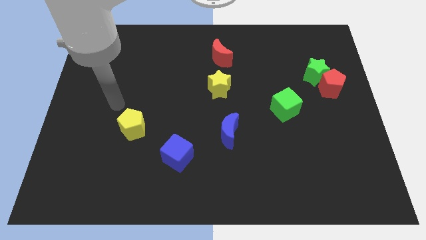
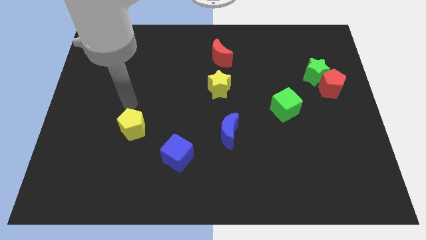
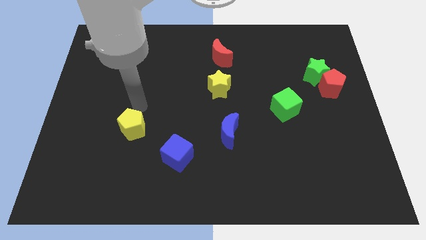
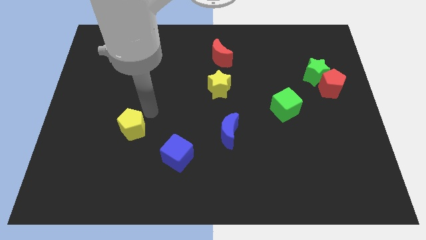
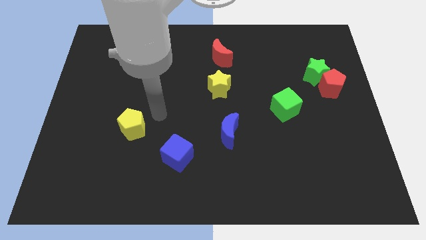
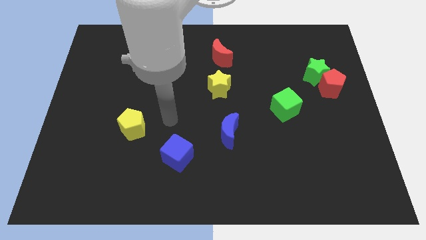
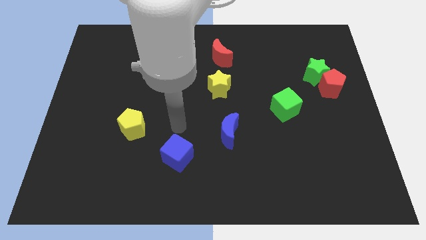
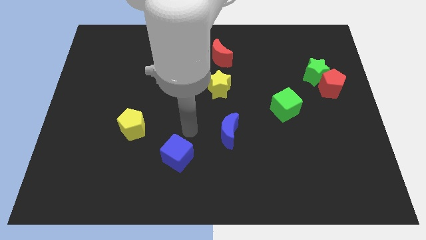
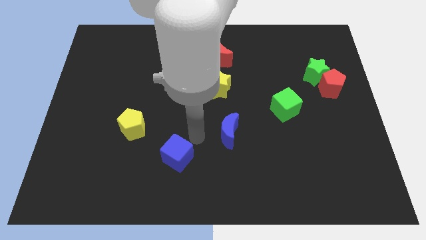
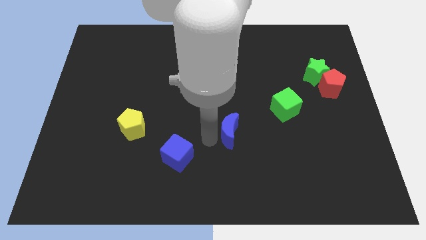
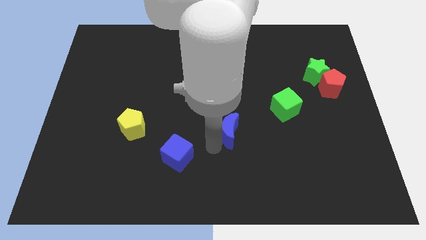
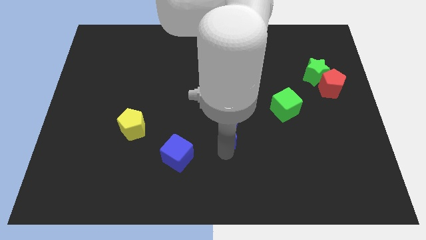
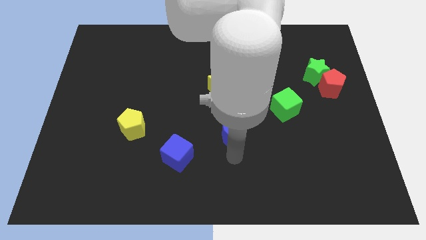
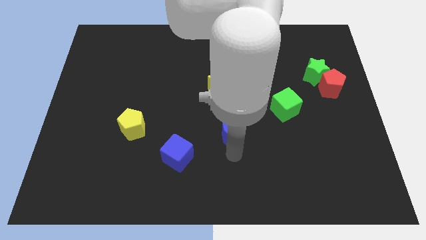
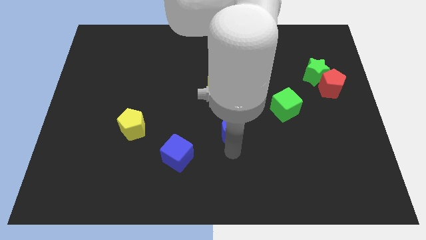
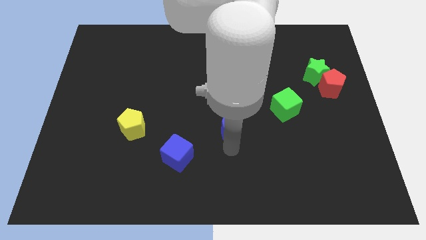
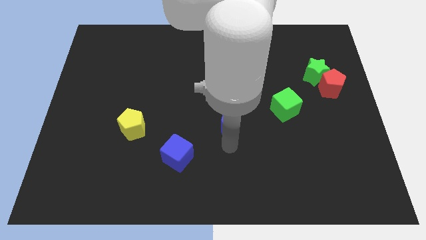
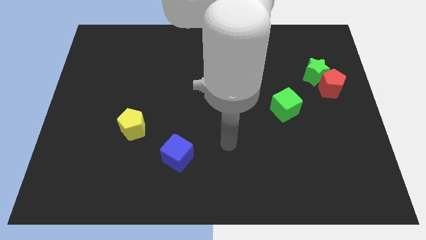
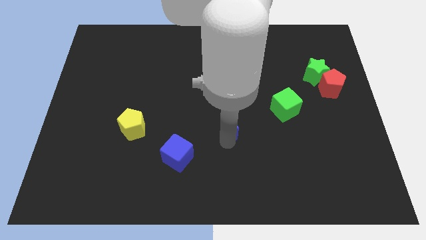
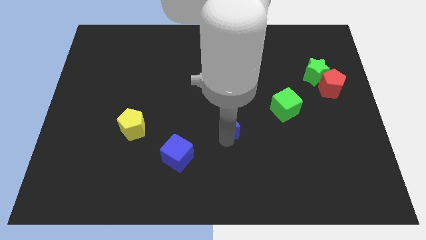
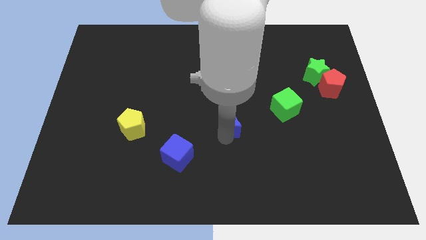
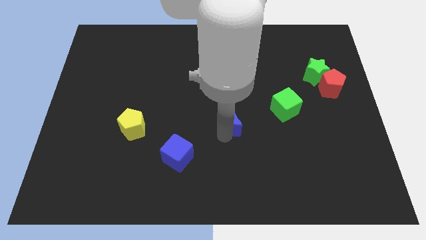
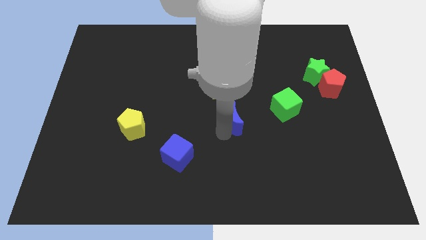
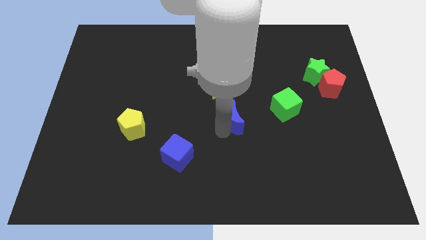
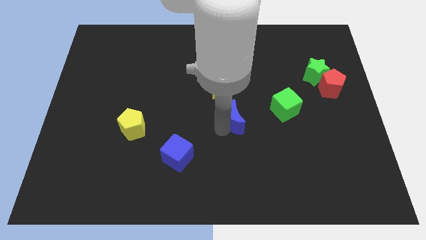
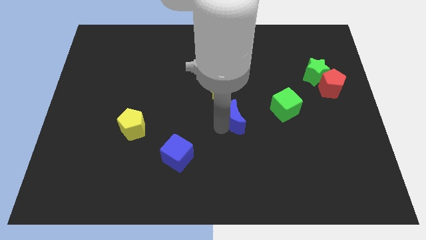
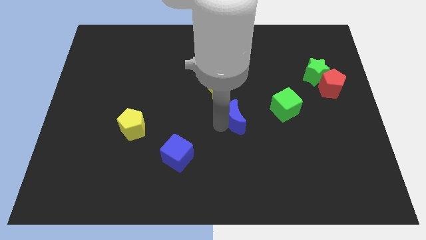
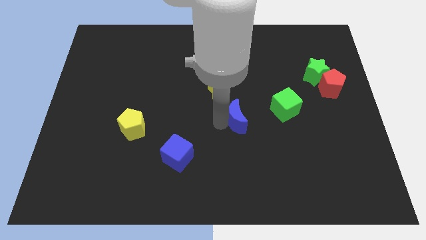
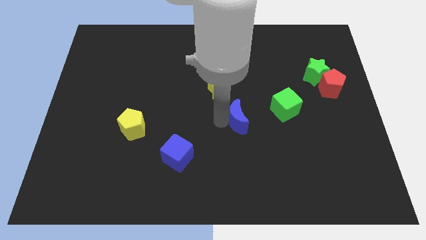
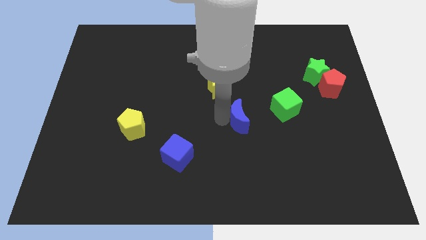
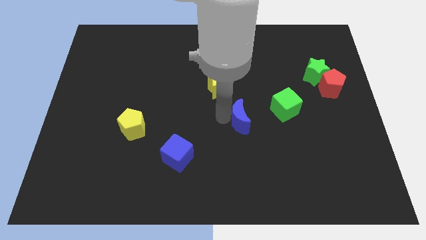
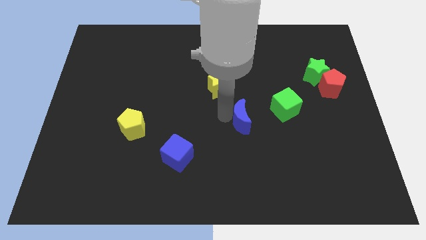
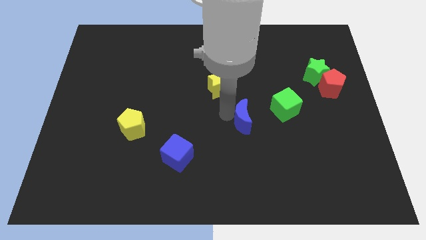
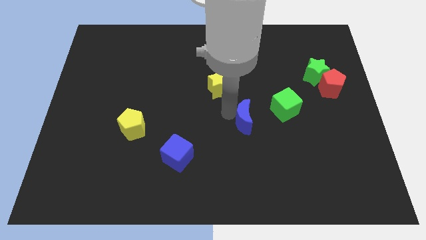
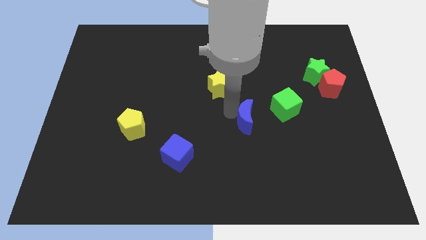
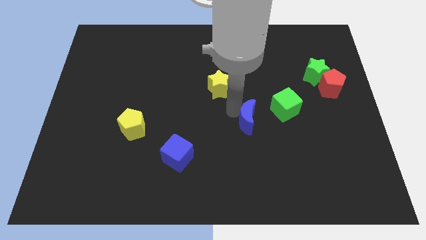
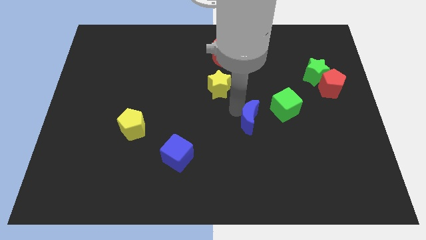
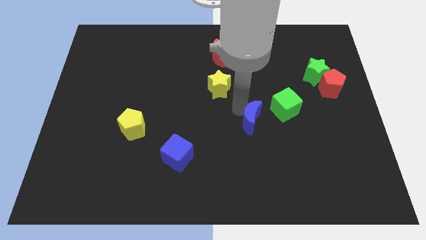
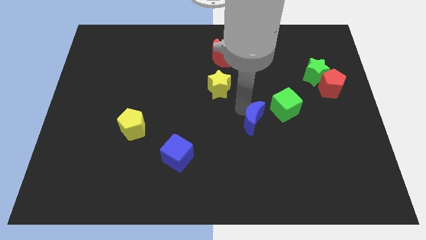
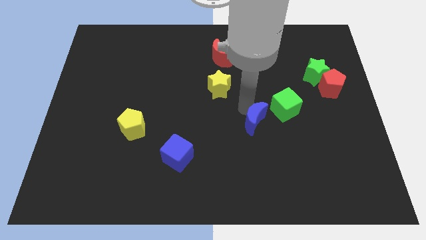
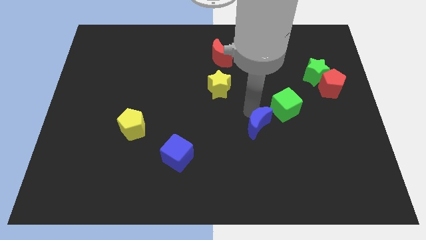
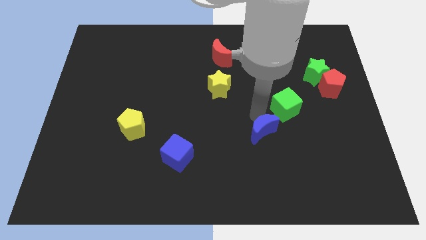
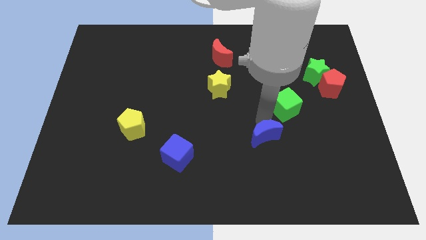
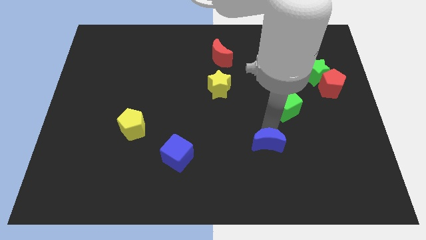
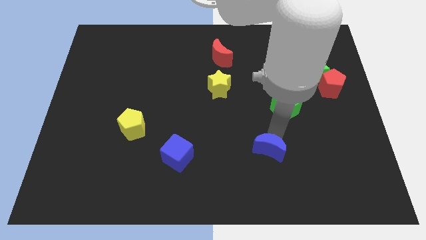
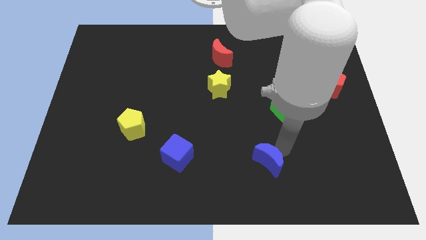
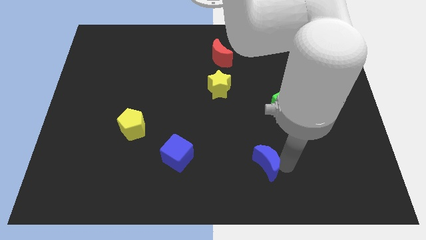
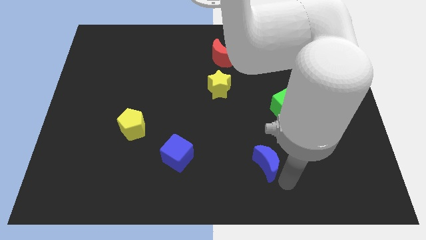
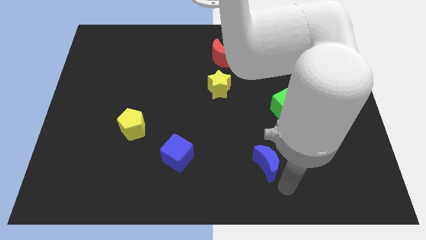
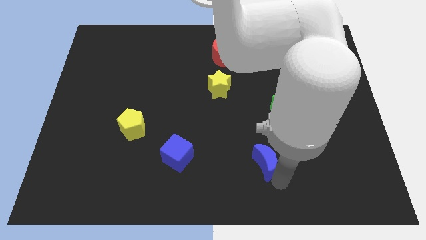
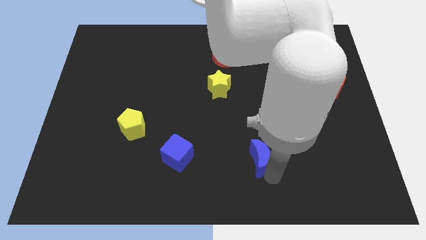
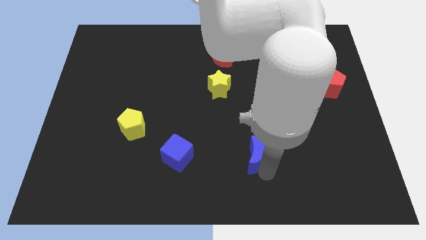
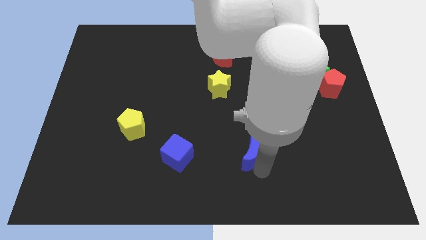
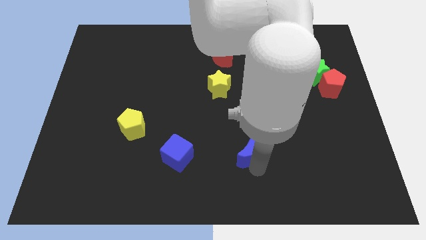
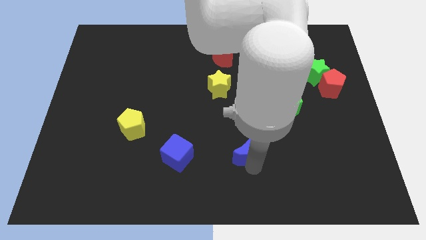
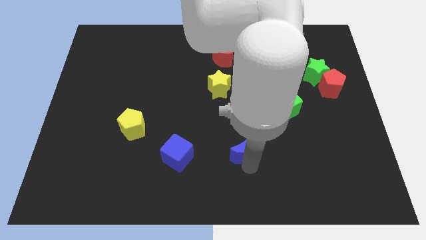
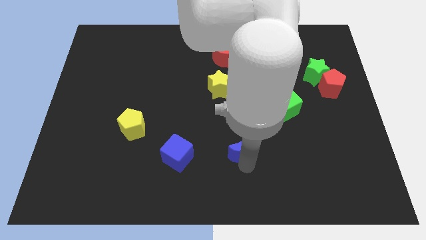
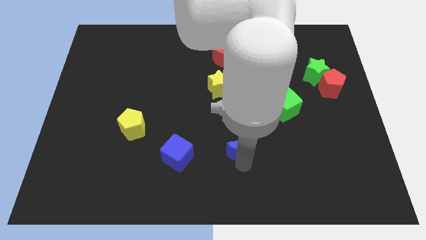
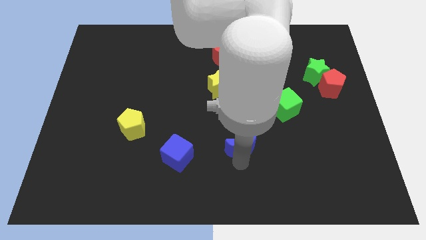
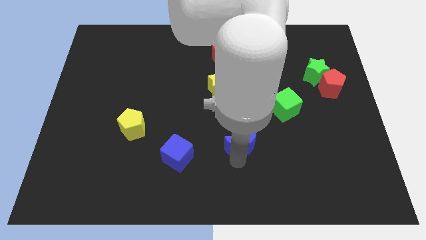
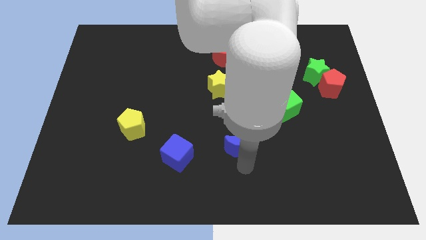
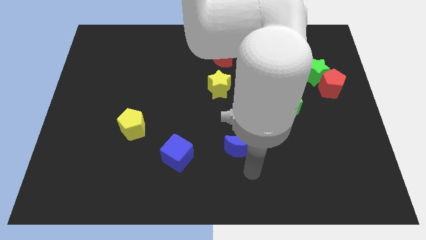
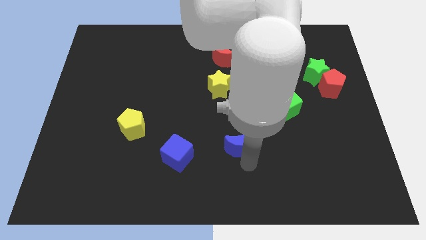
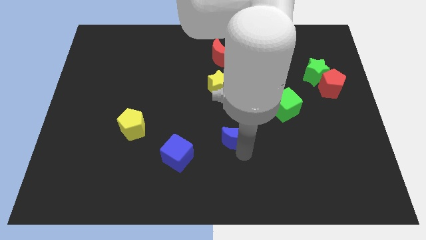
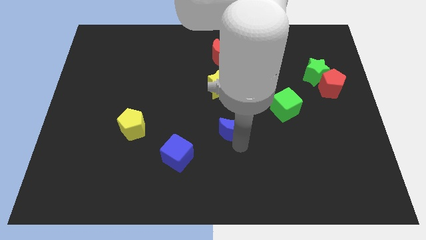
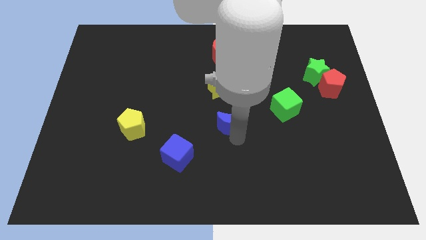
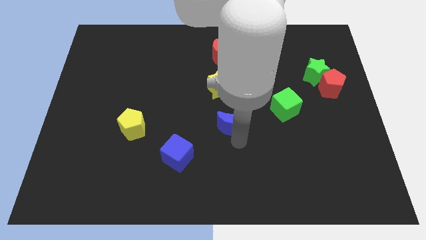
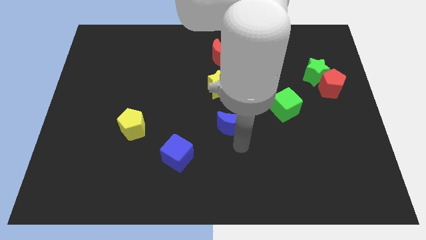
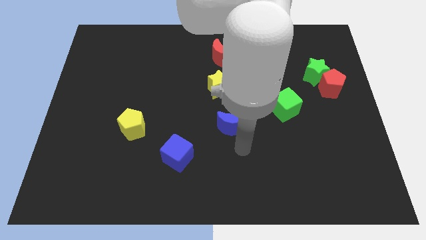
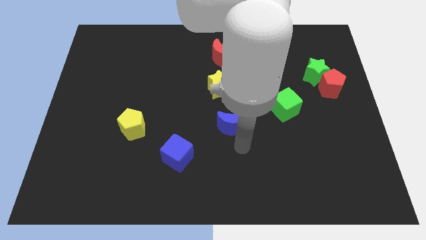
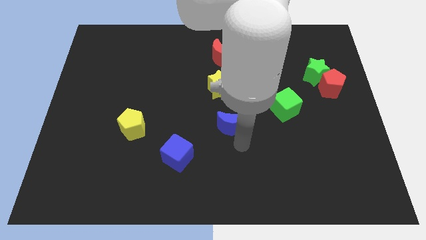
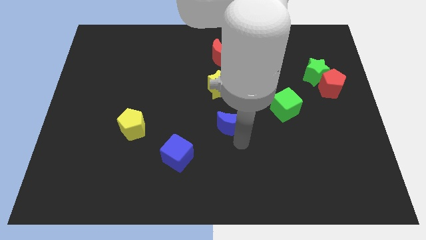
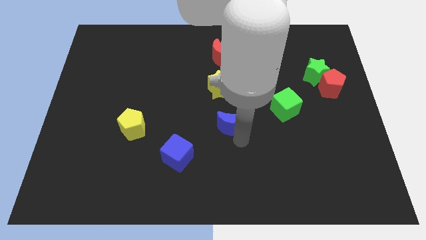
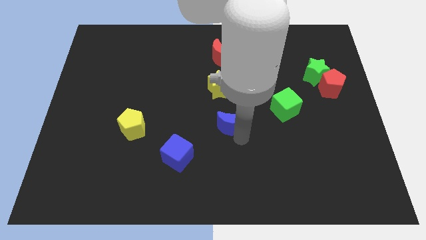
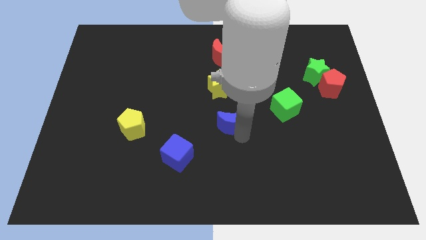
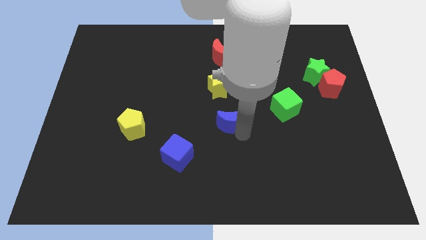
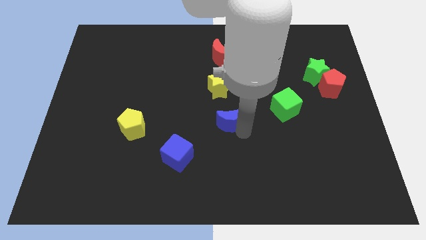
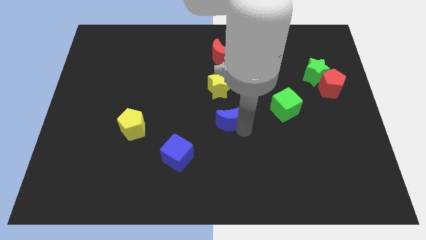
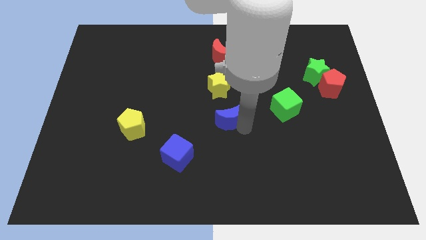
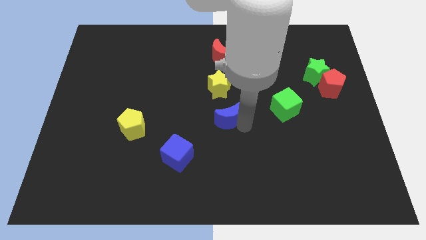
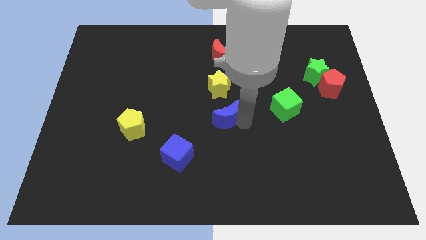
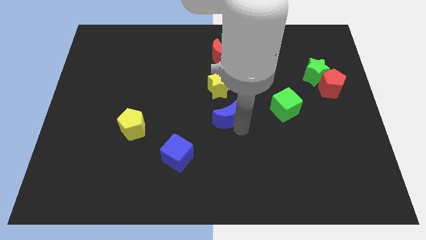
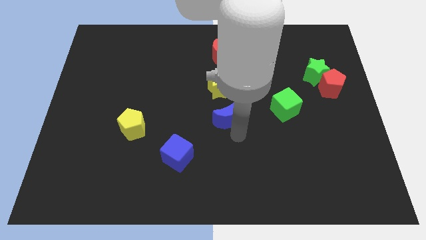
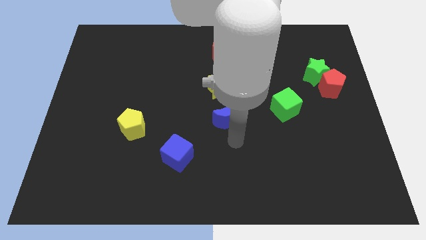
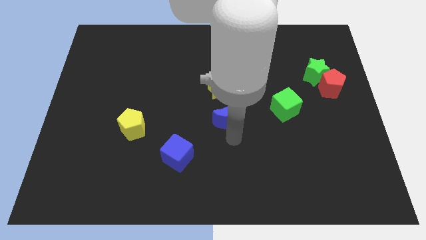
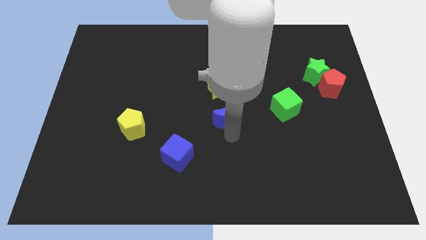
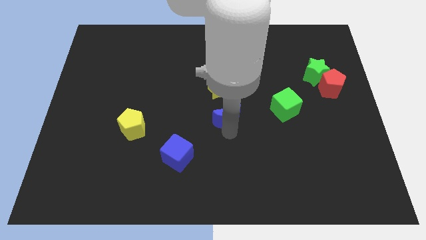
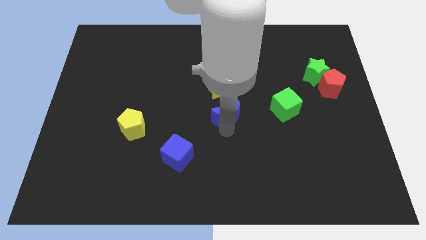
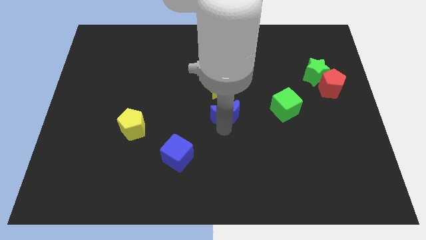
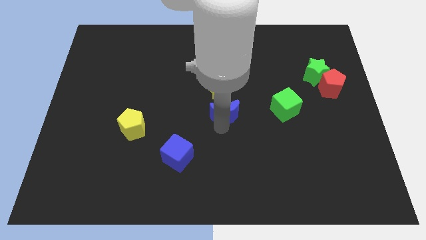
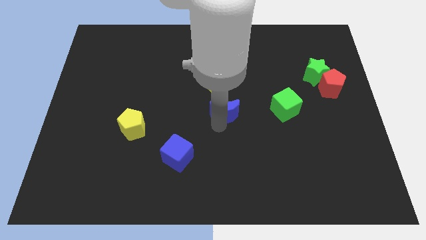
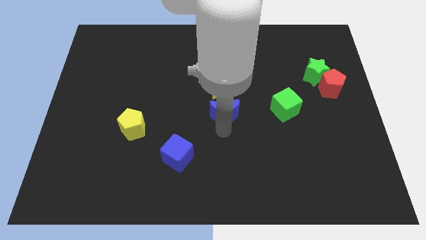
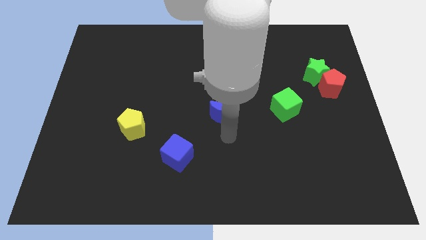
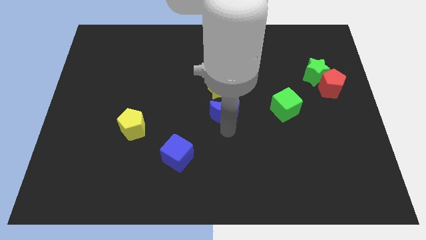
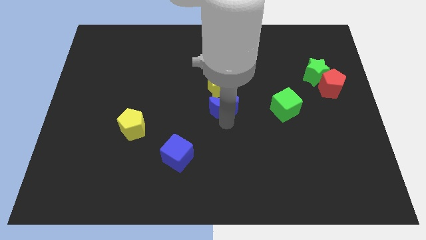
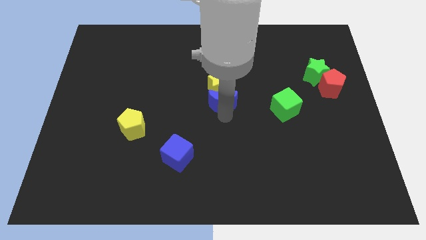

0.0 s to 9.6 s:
push the blue moon towards the yellow star
